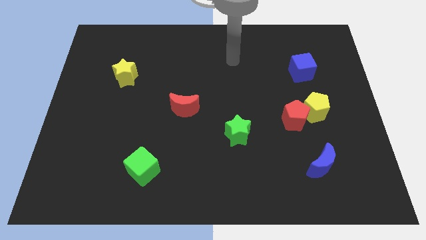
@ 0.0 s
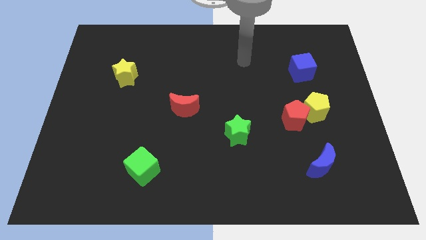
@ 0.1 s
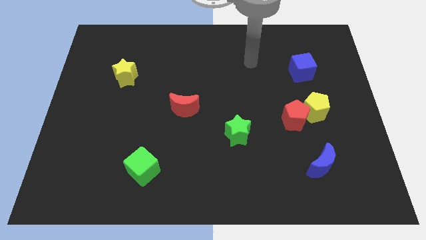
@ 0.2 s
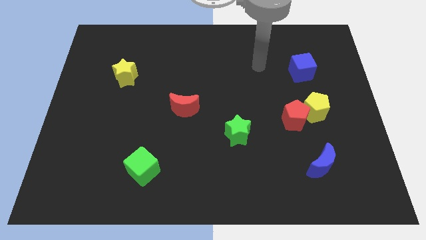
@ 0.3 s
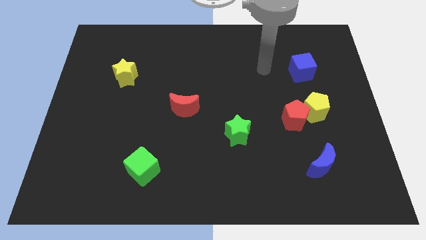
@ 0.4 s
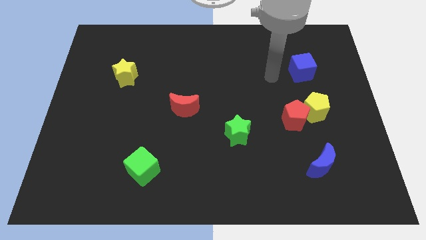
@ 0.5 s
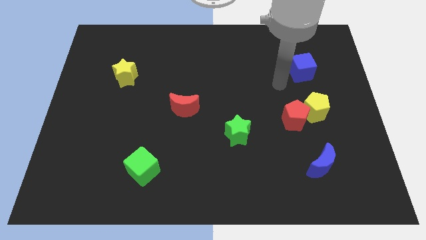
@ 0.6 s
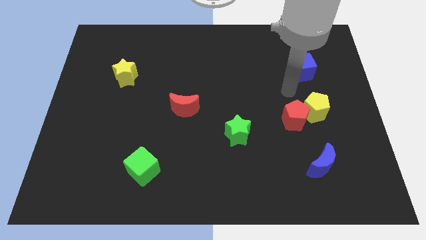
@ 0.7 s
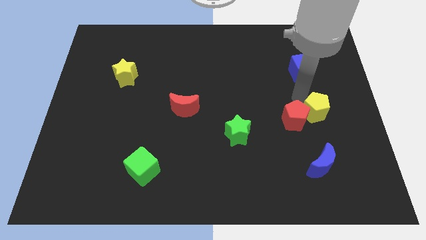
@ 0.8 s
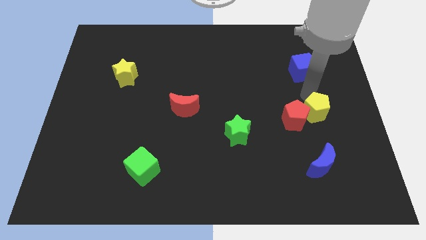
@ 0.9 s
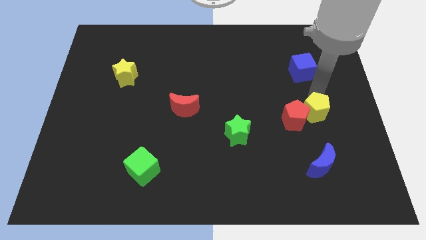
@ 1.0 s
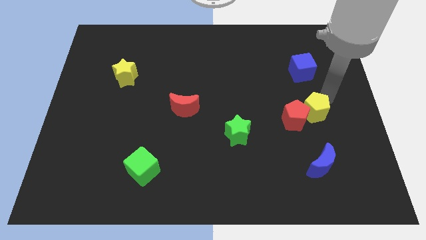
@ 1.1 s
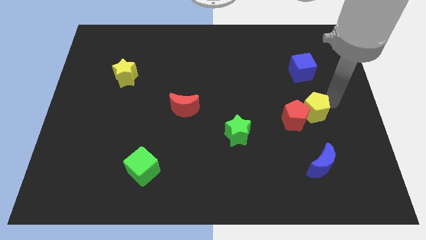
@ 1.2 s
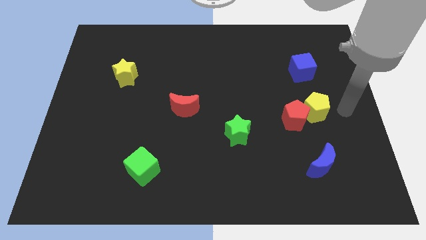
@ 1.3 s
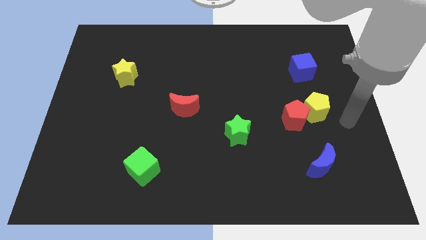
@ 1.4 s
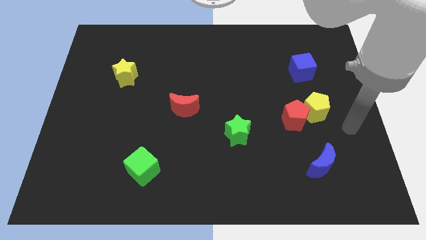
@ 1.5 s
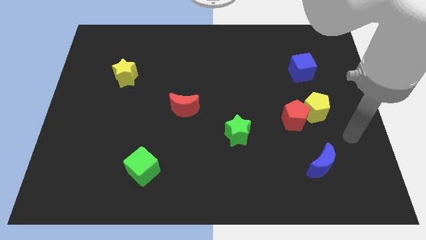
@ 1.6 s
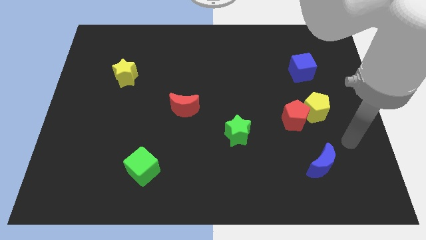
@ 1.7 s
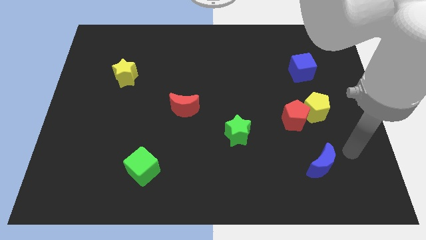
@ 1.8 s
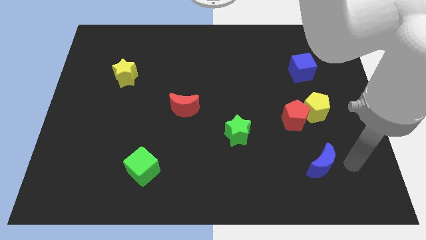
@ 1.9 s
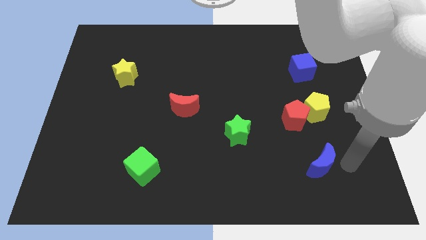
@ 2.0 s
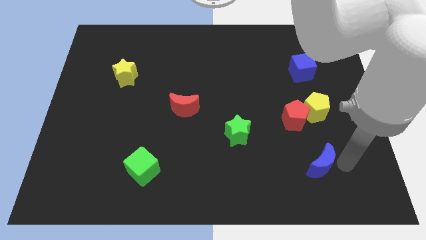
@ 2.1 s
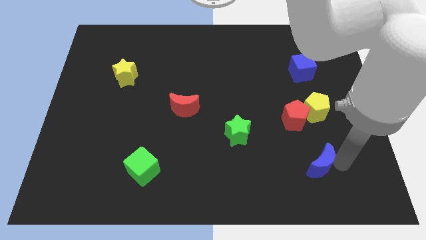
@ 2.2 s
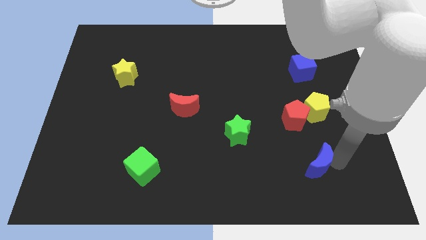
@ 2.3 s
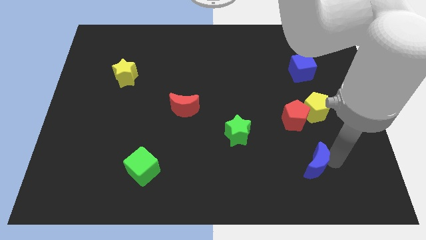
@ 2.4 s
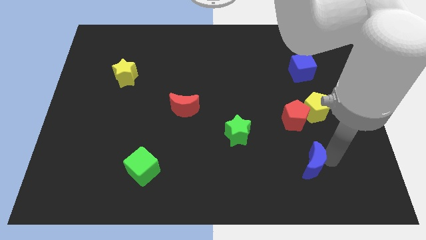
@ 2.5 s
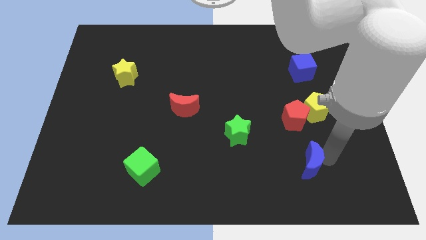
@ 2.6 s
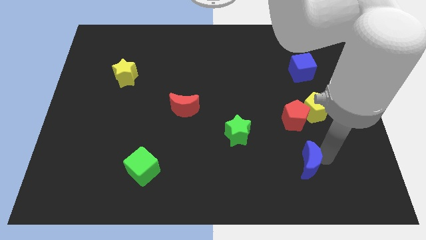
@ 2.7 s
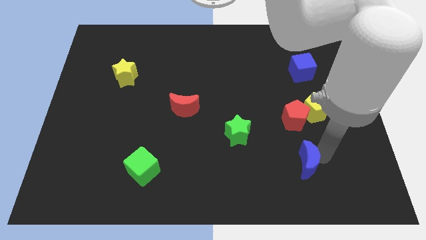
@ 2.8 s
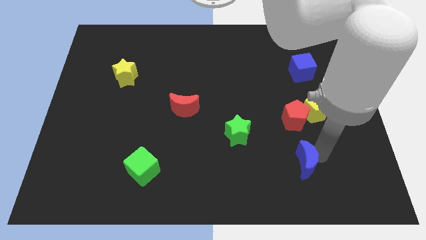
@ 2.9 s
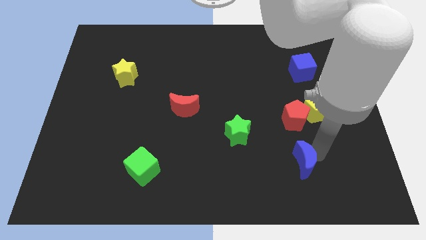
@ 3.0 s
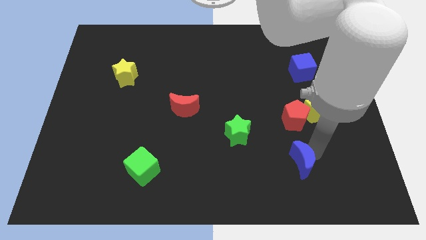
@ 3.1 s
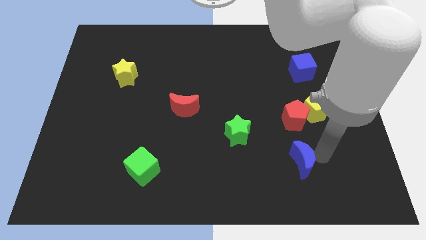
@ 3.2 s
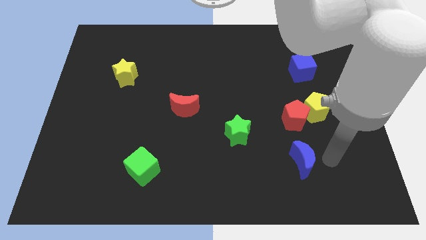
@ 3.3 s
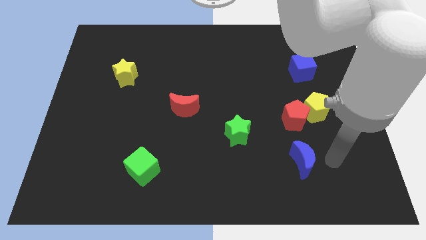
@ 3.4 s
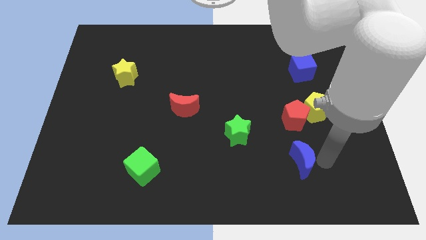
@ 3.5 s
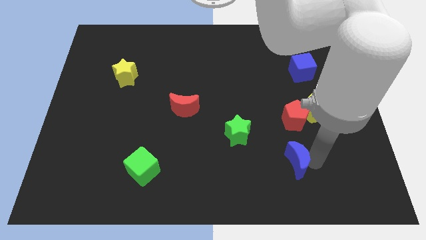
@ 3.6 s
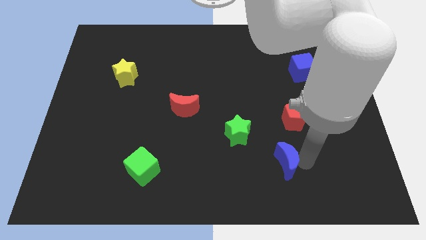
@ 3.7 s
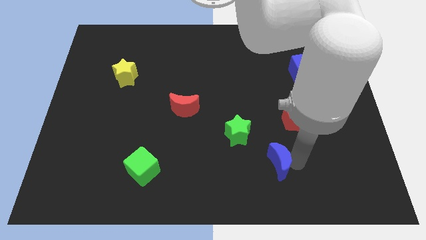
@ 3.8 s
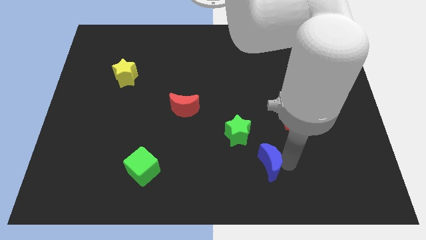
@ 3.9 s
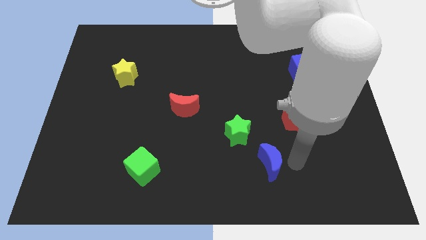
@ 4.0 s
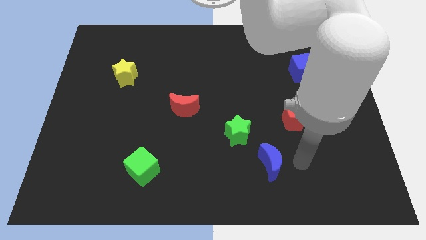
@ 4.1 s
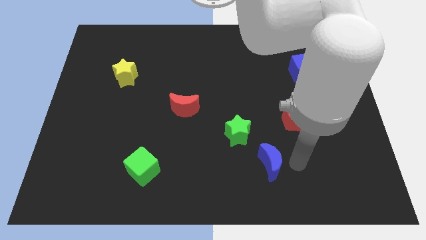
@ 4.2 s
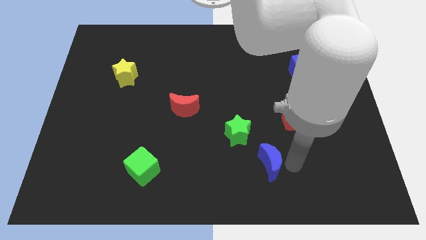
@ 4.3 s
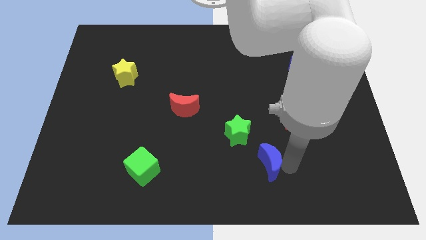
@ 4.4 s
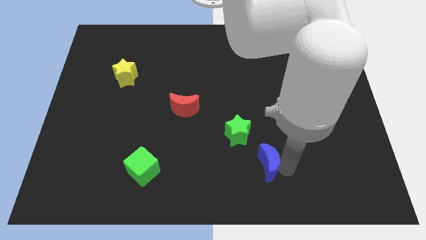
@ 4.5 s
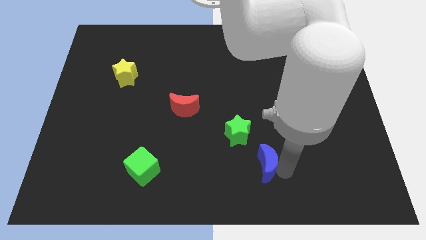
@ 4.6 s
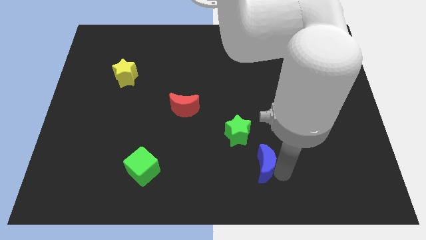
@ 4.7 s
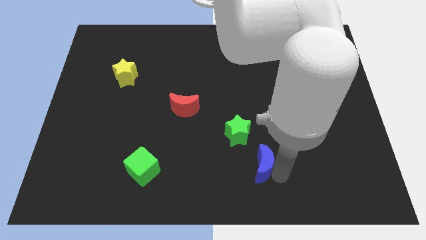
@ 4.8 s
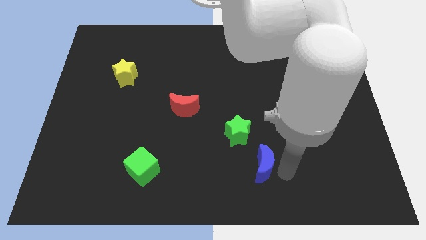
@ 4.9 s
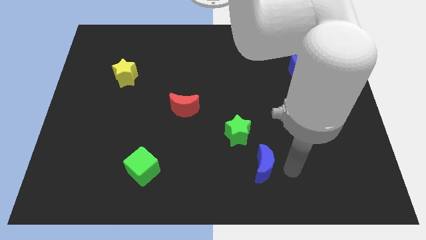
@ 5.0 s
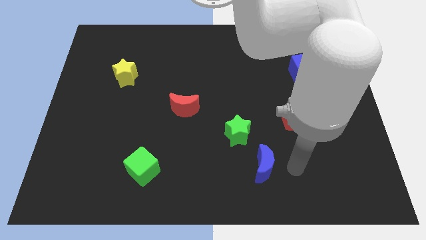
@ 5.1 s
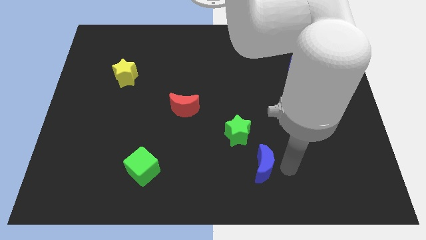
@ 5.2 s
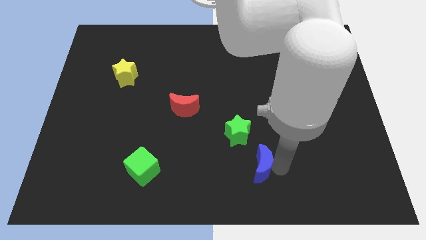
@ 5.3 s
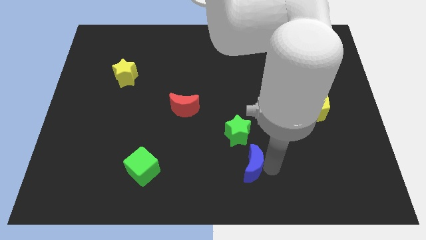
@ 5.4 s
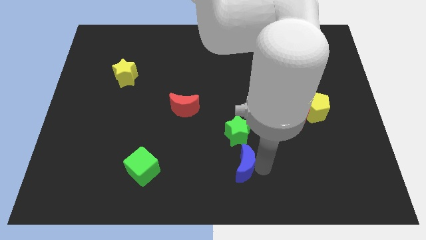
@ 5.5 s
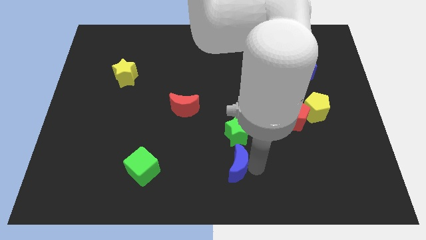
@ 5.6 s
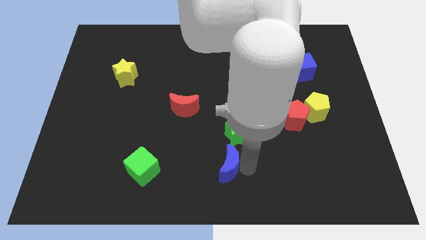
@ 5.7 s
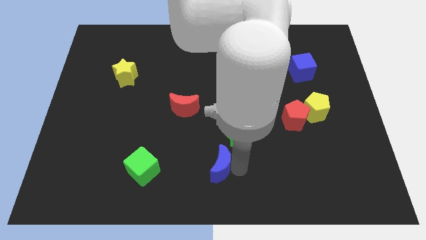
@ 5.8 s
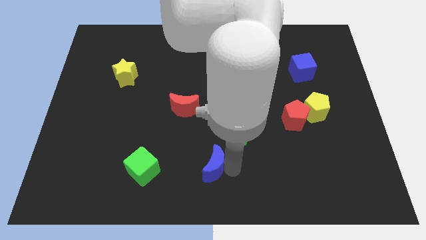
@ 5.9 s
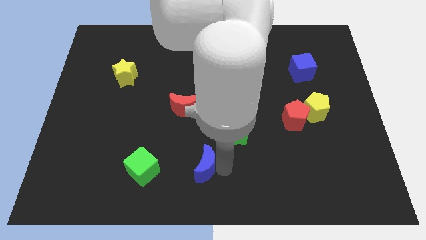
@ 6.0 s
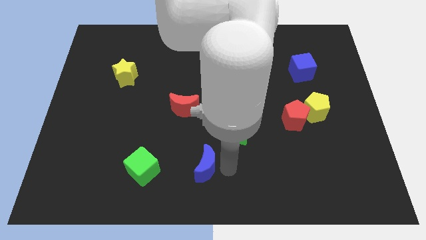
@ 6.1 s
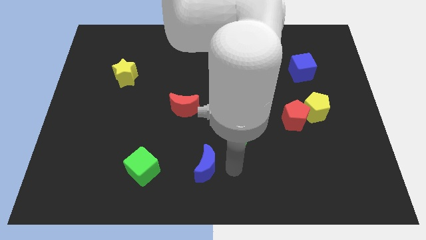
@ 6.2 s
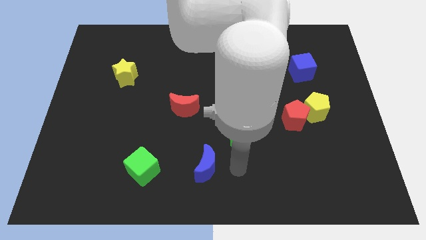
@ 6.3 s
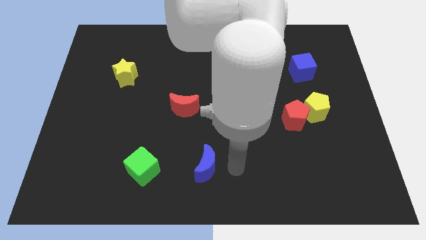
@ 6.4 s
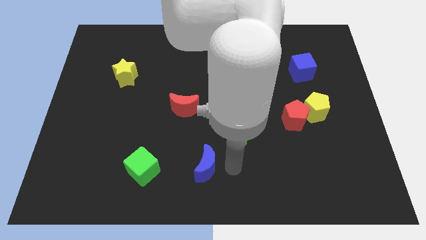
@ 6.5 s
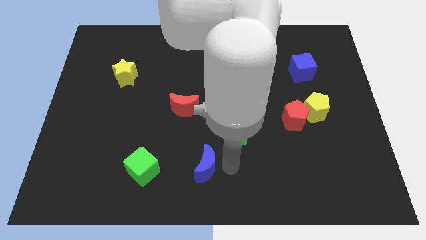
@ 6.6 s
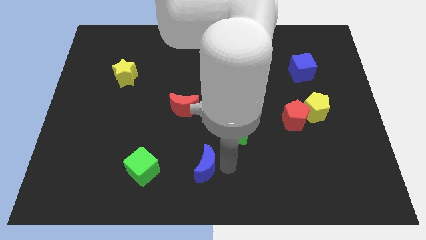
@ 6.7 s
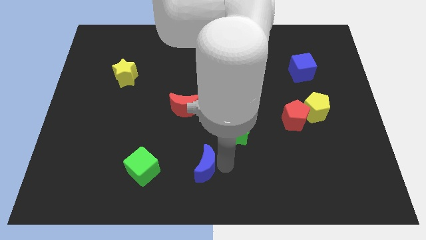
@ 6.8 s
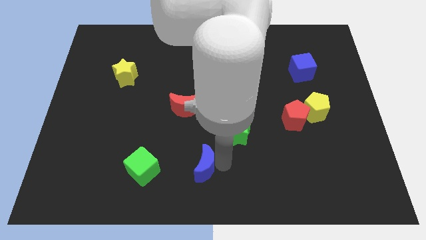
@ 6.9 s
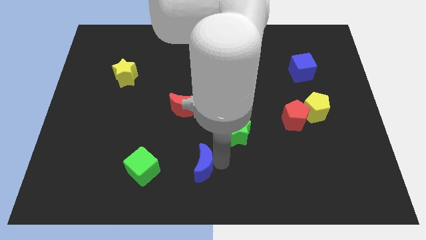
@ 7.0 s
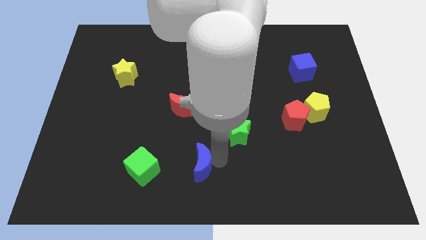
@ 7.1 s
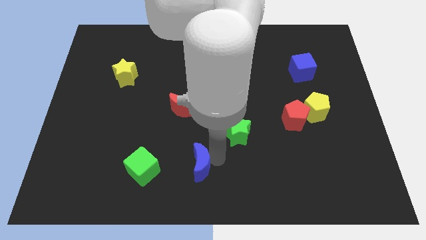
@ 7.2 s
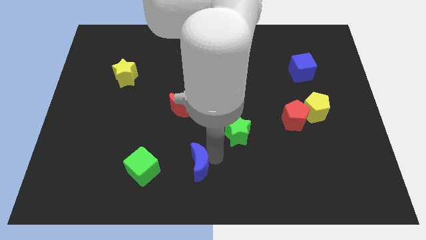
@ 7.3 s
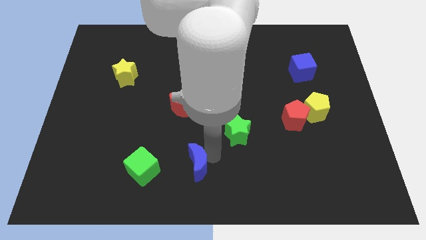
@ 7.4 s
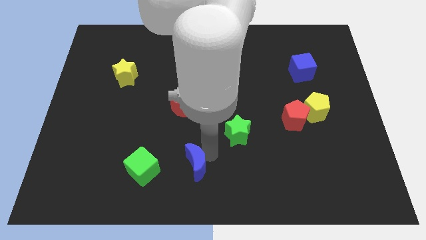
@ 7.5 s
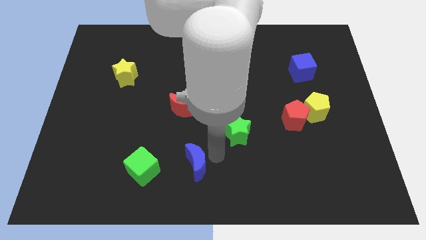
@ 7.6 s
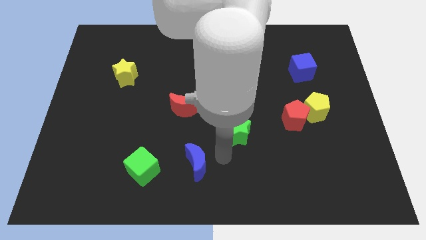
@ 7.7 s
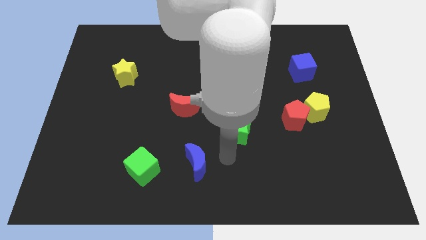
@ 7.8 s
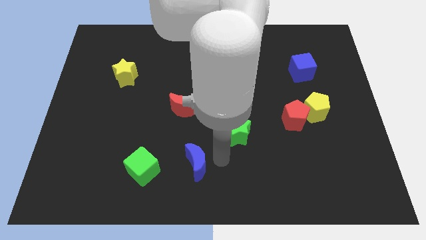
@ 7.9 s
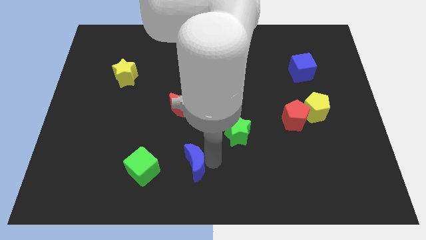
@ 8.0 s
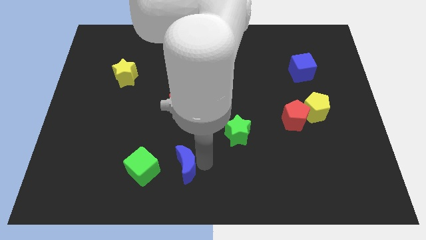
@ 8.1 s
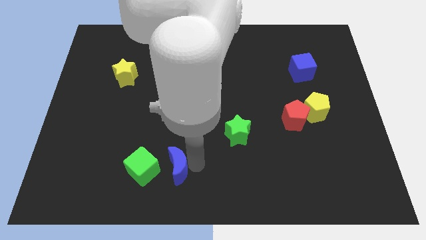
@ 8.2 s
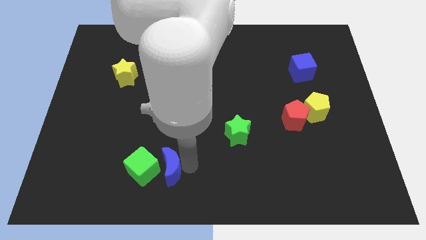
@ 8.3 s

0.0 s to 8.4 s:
put the blue moon next to the green cube
